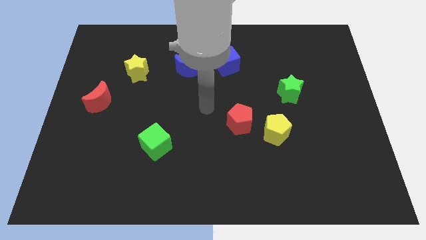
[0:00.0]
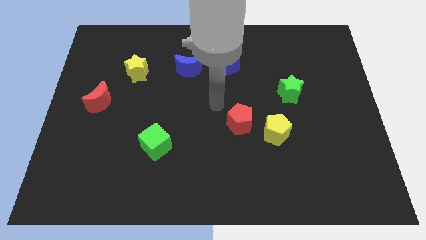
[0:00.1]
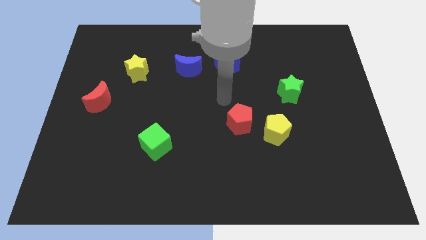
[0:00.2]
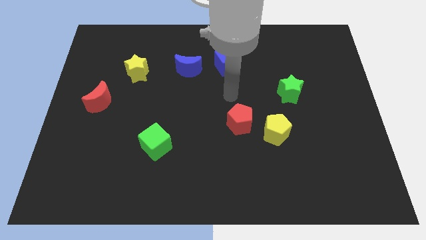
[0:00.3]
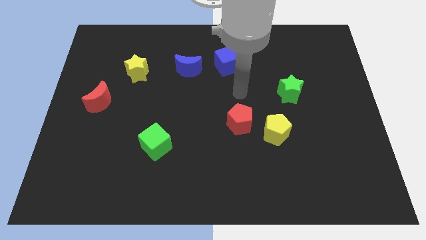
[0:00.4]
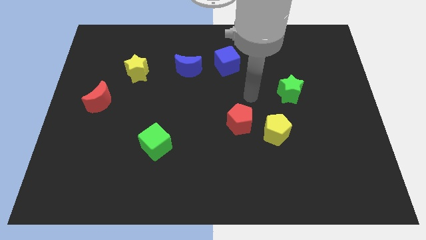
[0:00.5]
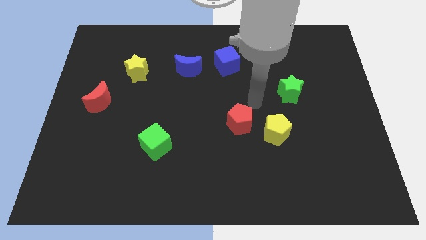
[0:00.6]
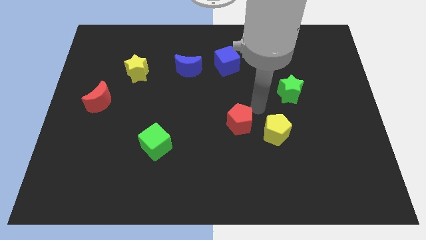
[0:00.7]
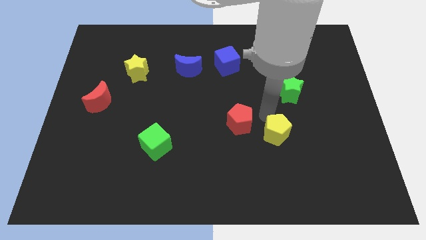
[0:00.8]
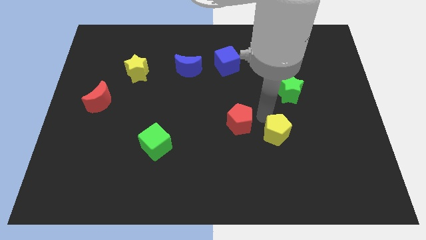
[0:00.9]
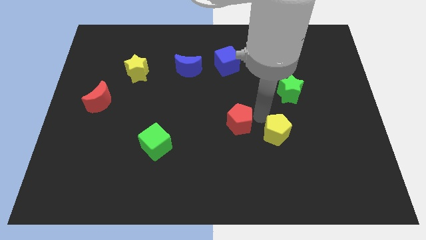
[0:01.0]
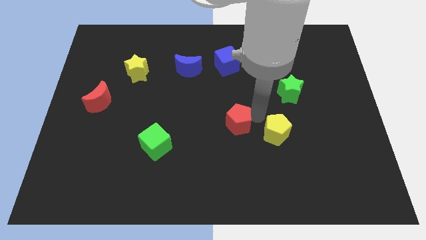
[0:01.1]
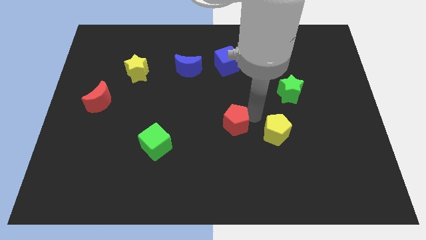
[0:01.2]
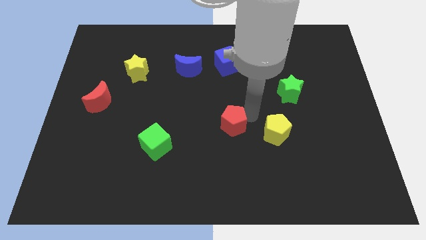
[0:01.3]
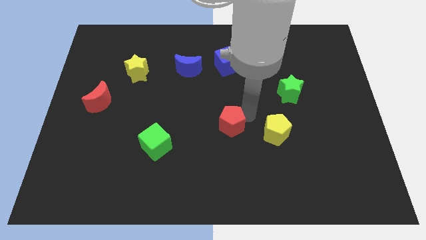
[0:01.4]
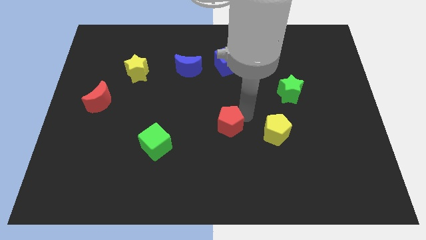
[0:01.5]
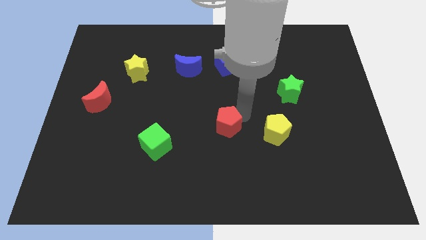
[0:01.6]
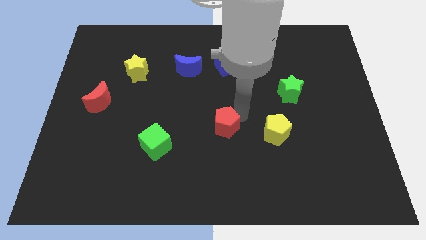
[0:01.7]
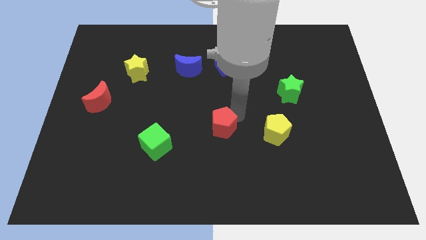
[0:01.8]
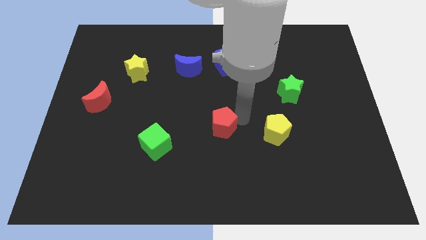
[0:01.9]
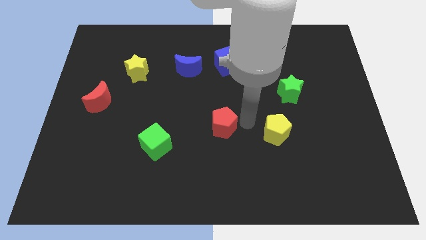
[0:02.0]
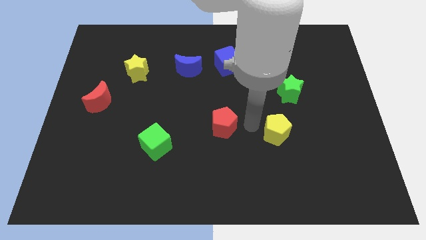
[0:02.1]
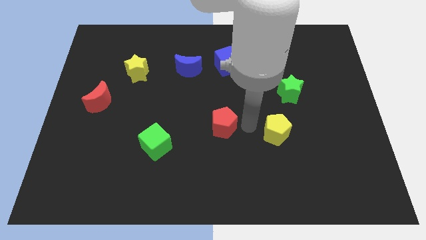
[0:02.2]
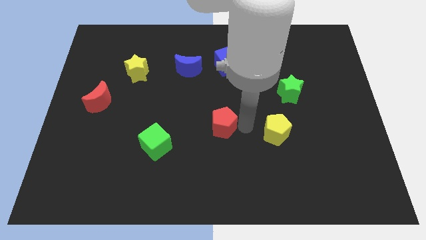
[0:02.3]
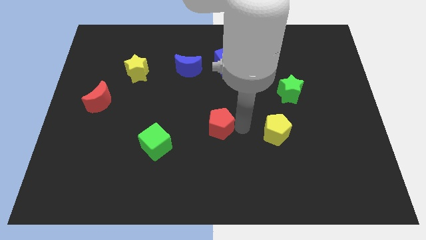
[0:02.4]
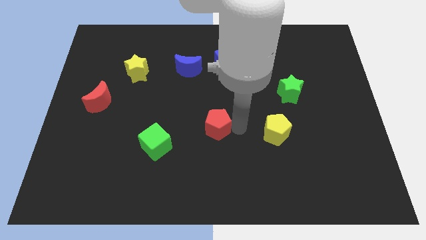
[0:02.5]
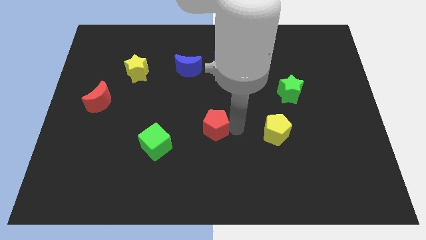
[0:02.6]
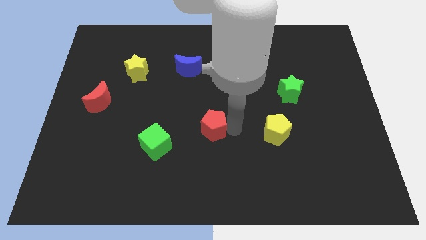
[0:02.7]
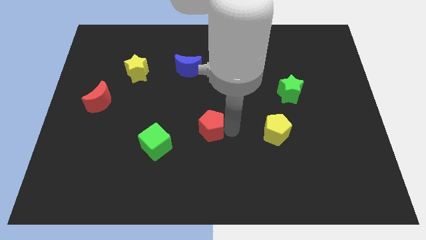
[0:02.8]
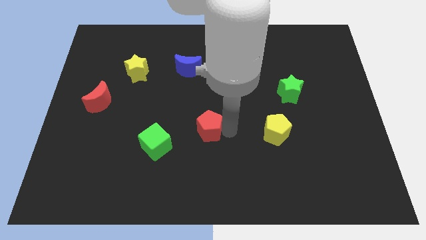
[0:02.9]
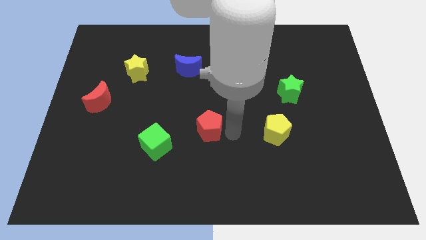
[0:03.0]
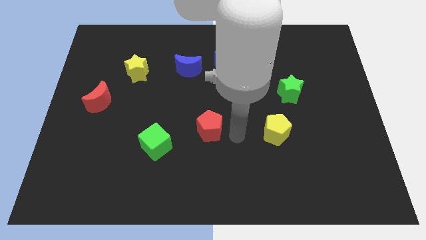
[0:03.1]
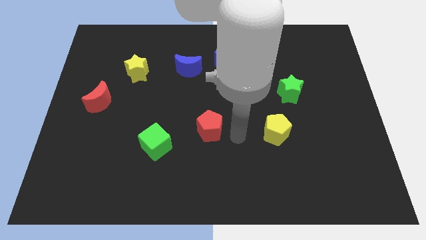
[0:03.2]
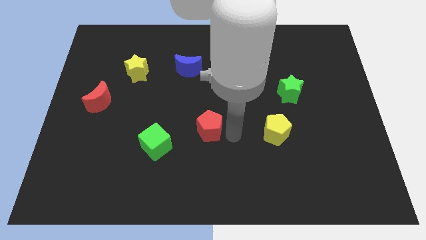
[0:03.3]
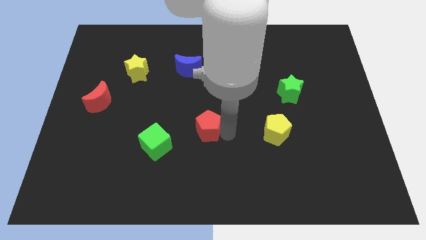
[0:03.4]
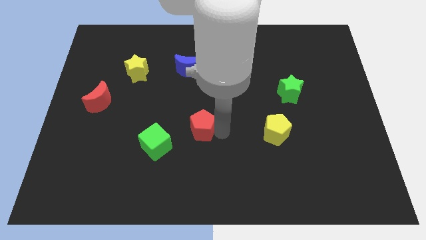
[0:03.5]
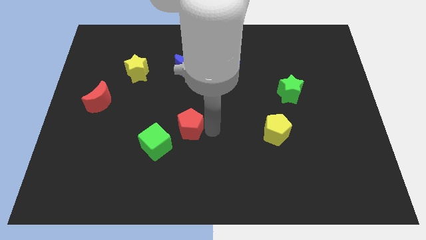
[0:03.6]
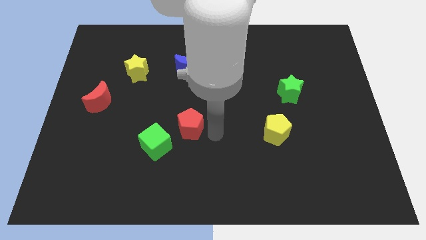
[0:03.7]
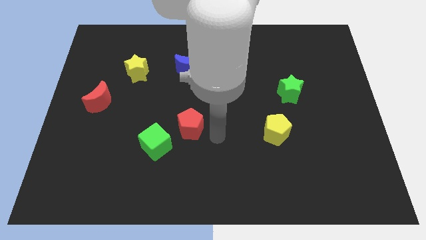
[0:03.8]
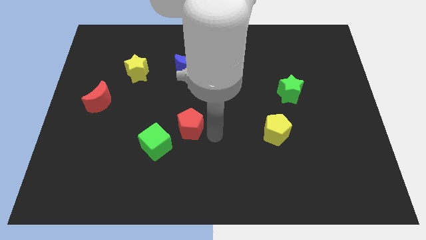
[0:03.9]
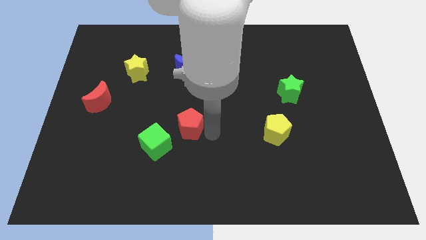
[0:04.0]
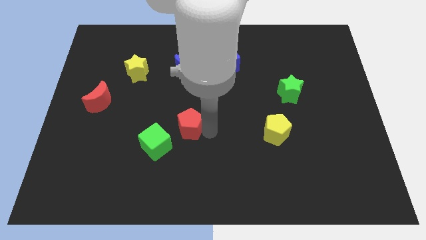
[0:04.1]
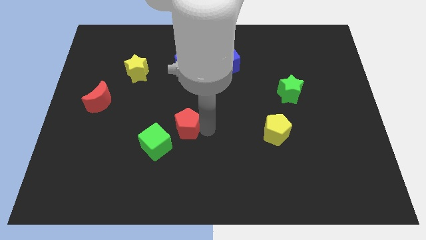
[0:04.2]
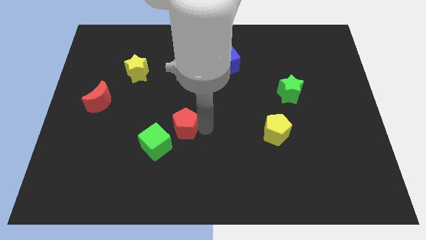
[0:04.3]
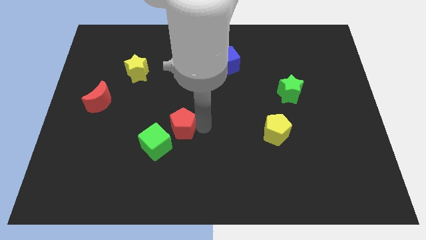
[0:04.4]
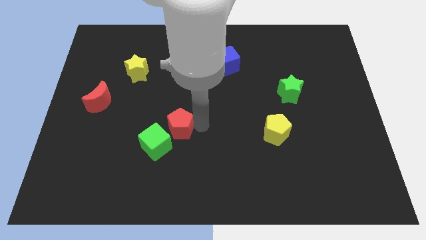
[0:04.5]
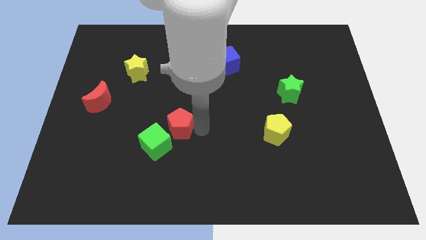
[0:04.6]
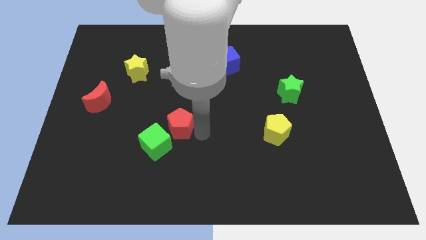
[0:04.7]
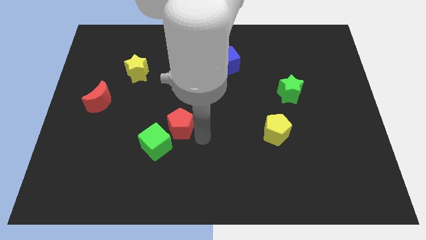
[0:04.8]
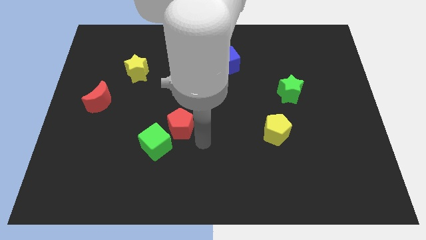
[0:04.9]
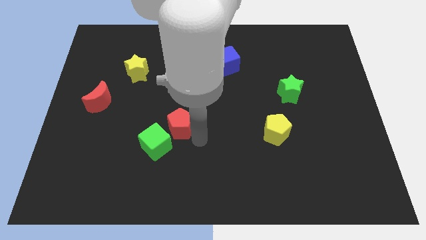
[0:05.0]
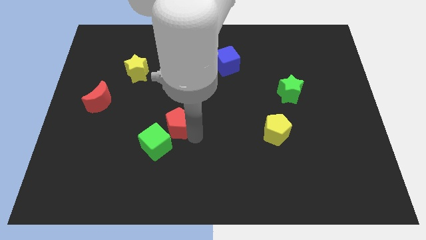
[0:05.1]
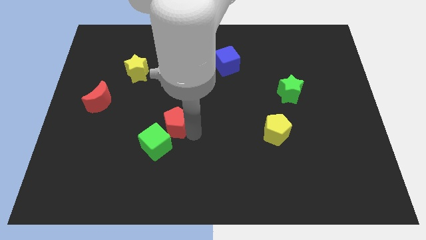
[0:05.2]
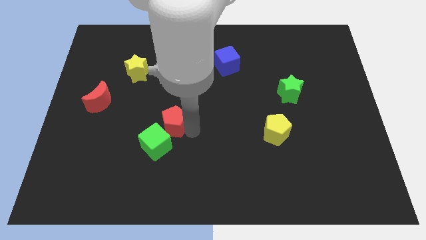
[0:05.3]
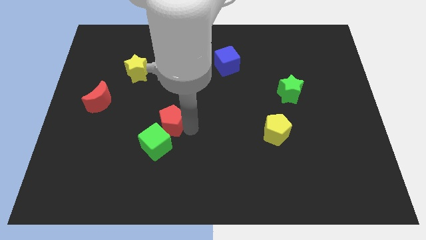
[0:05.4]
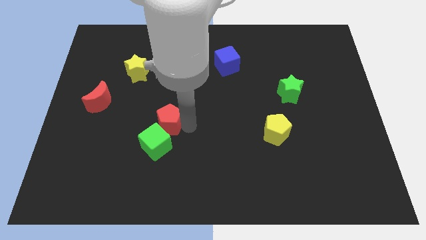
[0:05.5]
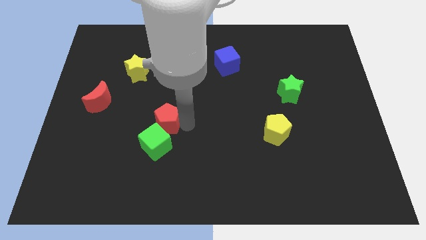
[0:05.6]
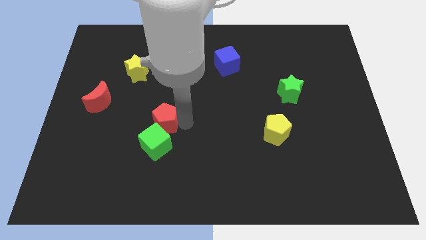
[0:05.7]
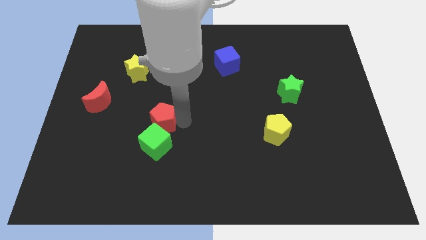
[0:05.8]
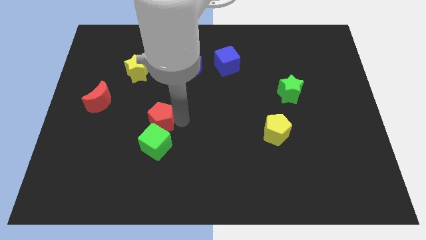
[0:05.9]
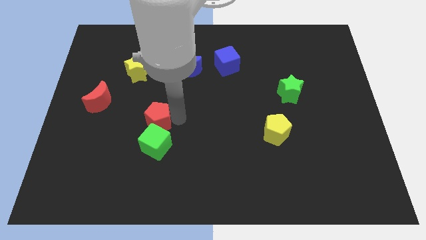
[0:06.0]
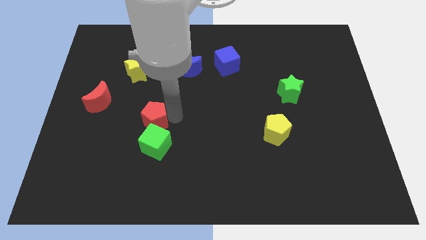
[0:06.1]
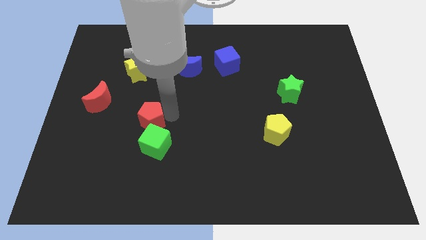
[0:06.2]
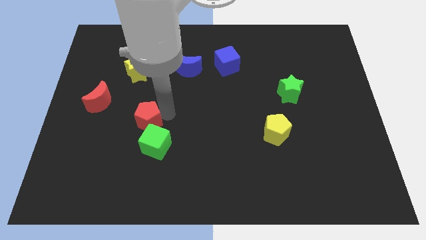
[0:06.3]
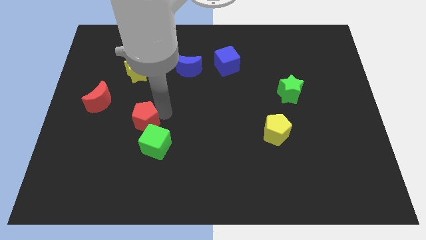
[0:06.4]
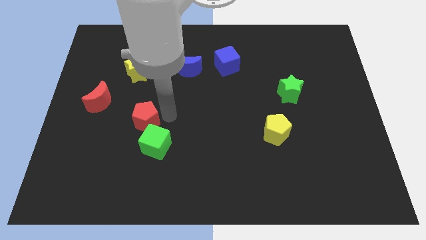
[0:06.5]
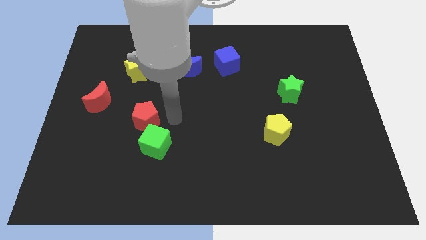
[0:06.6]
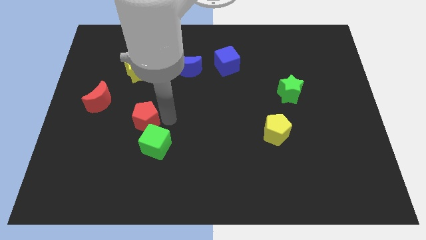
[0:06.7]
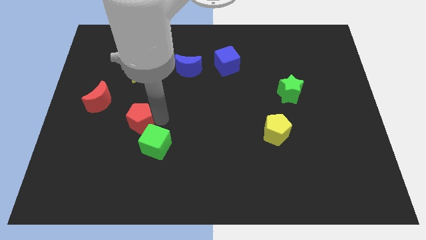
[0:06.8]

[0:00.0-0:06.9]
put the red pentagon to the bottom right side of the red moon
